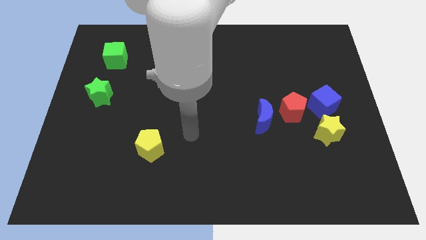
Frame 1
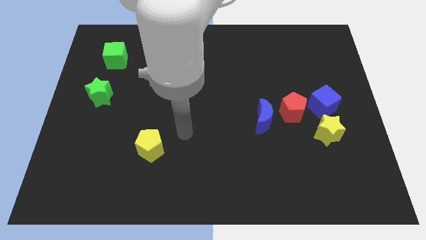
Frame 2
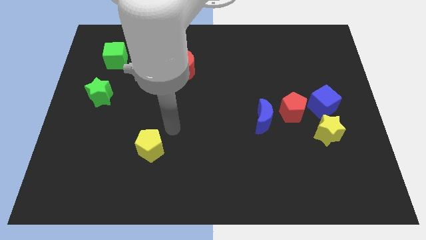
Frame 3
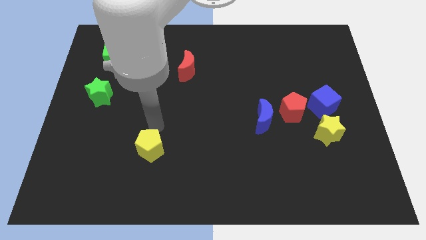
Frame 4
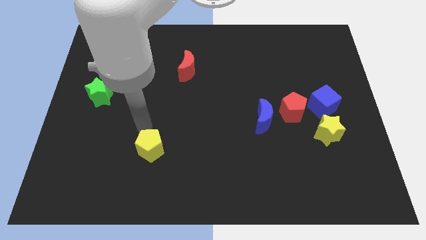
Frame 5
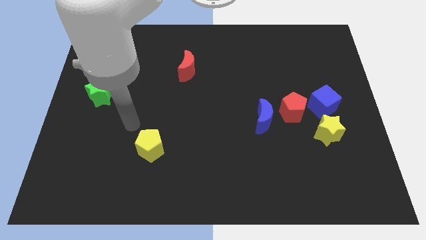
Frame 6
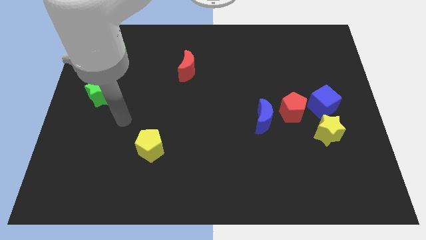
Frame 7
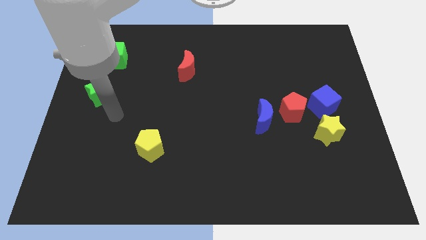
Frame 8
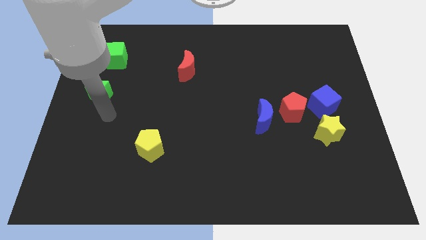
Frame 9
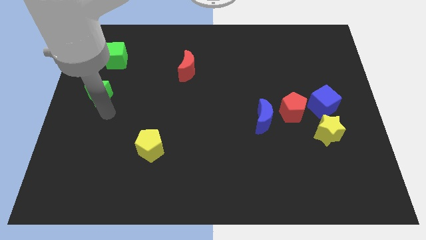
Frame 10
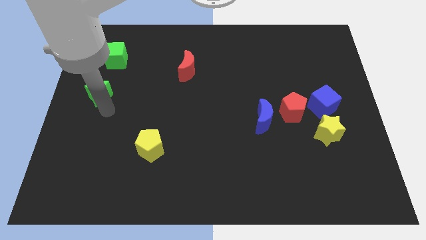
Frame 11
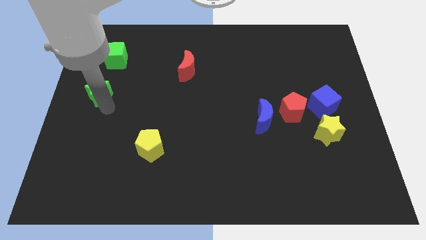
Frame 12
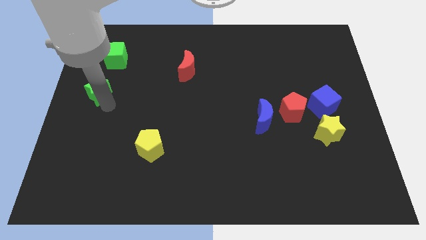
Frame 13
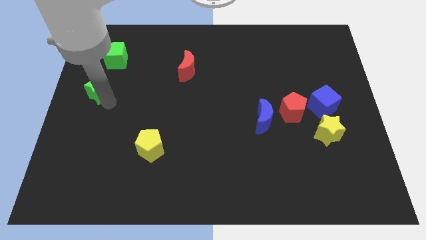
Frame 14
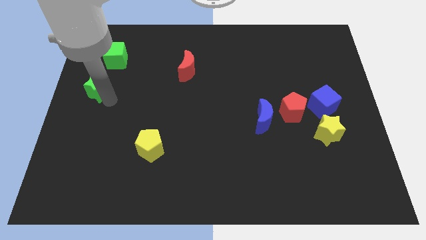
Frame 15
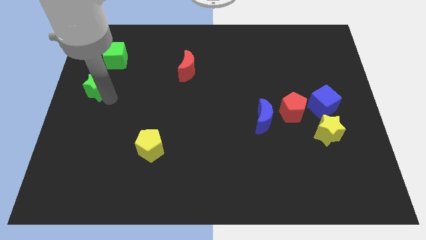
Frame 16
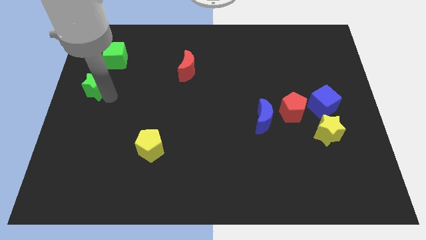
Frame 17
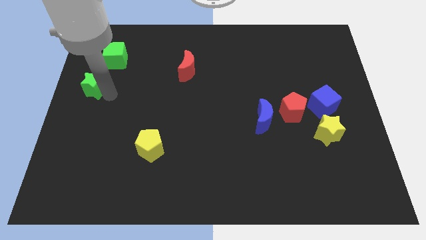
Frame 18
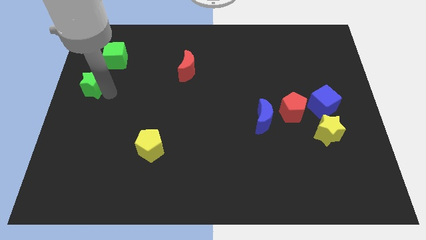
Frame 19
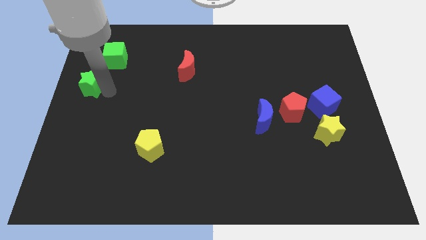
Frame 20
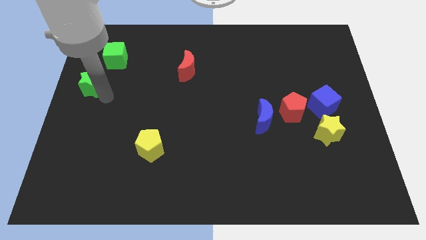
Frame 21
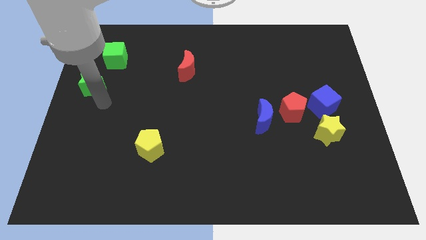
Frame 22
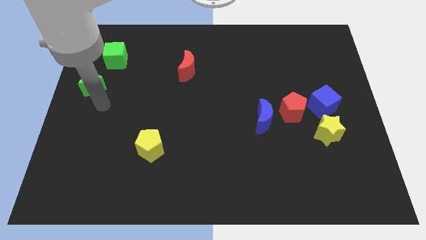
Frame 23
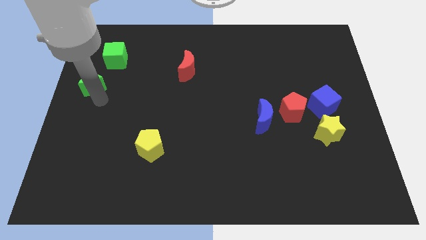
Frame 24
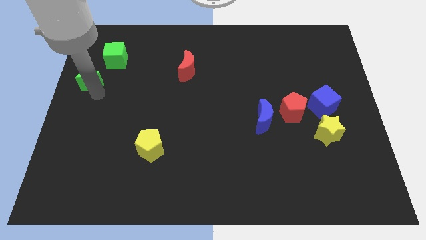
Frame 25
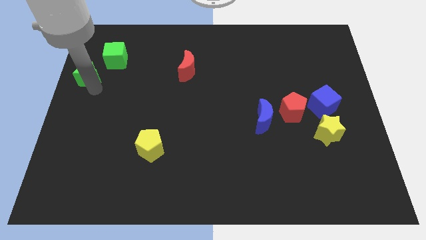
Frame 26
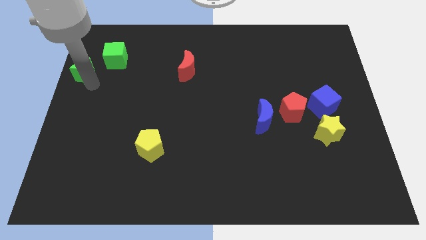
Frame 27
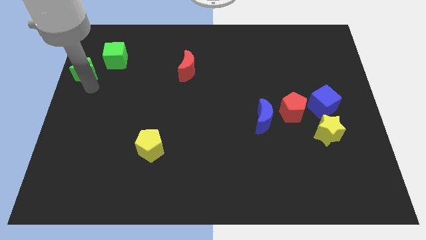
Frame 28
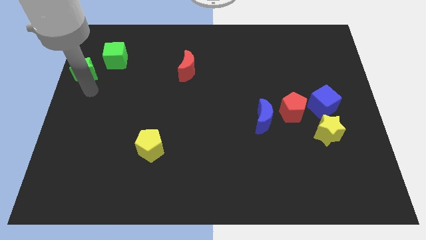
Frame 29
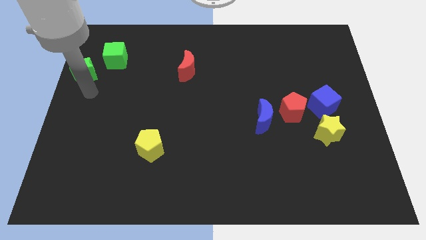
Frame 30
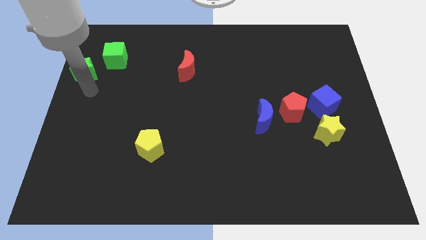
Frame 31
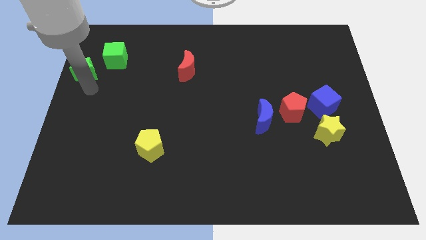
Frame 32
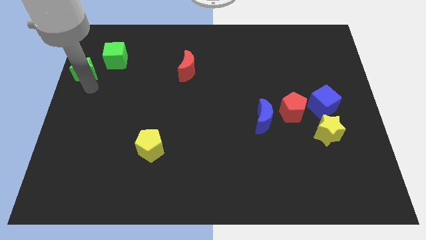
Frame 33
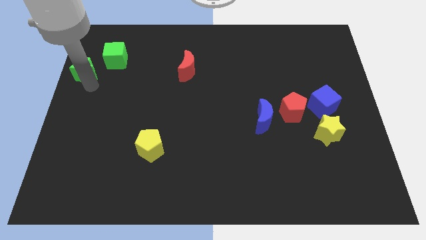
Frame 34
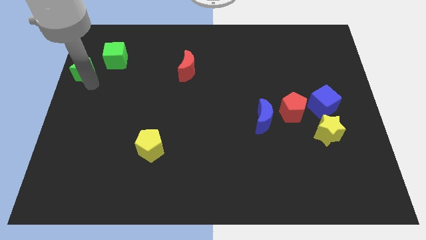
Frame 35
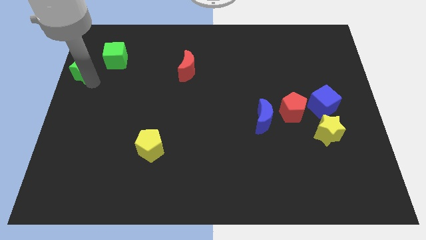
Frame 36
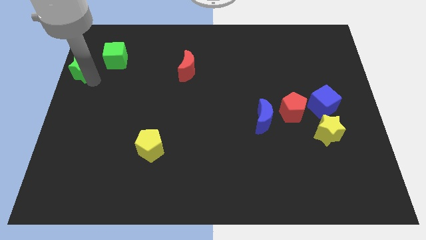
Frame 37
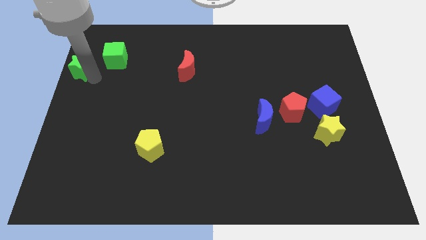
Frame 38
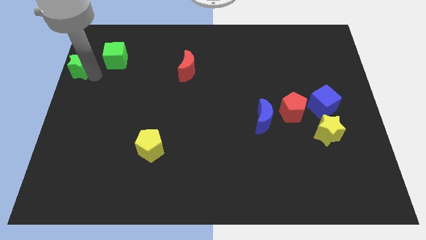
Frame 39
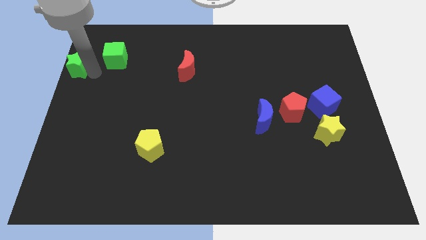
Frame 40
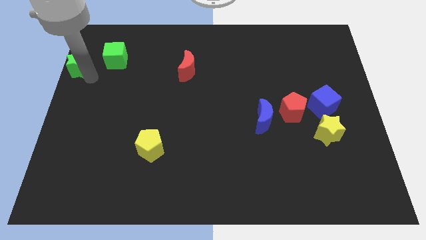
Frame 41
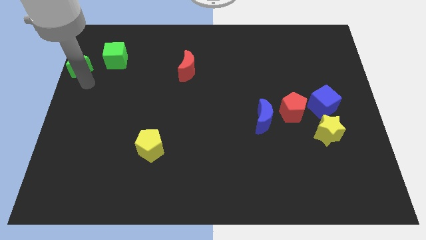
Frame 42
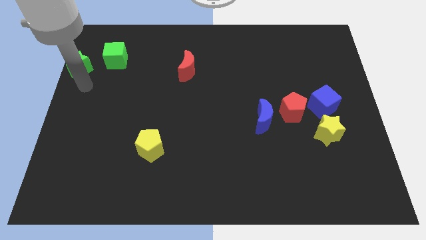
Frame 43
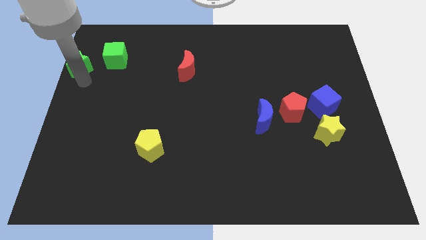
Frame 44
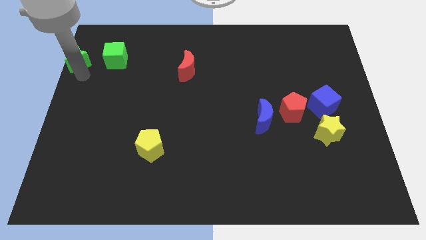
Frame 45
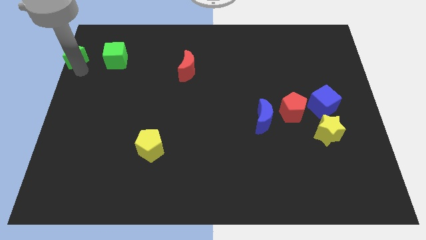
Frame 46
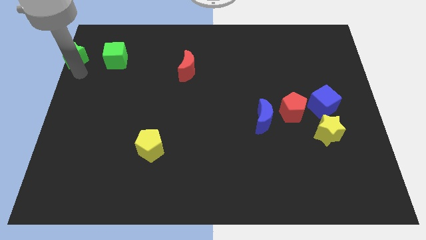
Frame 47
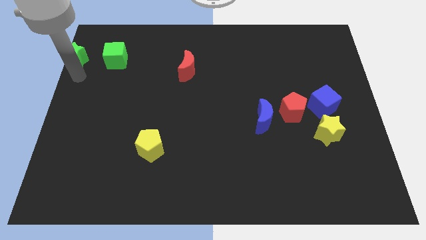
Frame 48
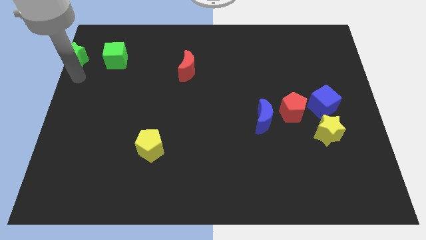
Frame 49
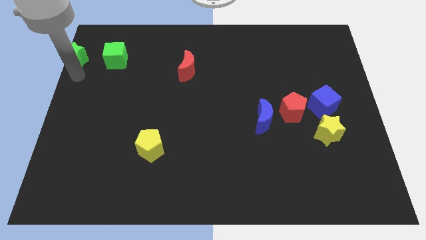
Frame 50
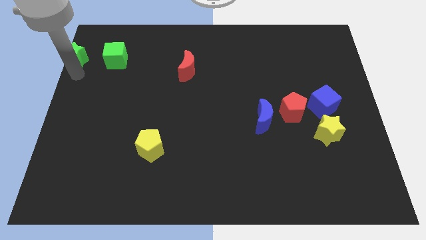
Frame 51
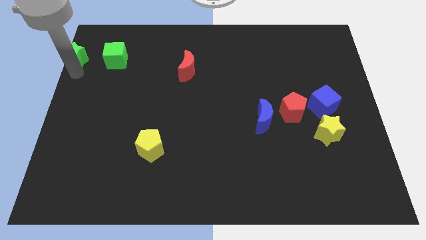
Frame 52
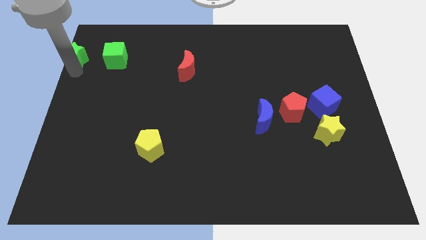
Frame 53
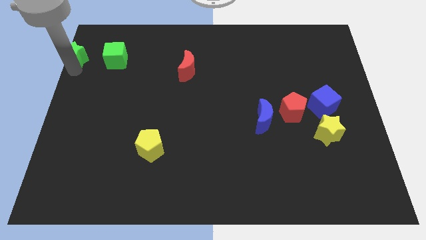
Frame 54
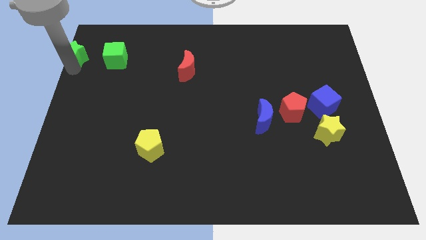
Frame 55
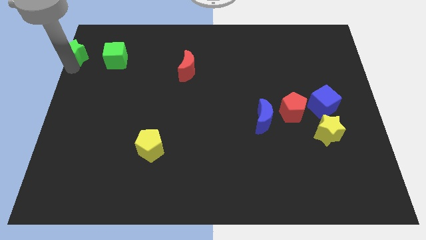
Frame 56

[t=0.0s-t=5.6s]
slide the green star to the top left corner
